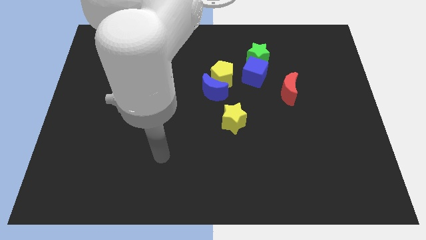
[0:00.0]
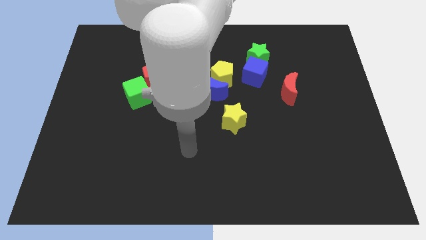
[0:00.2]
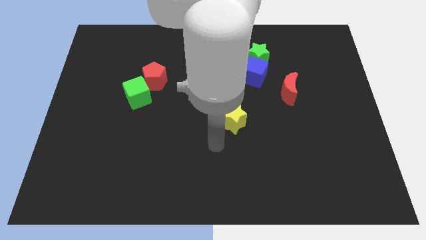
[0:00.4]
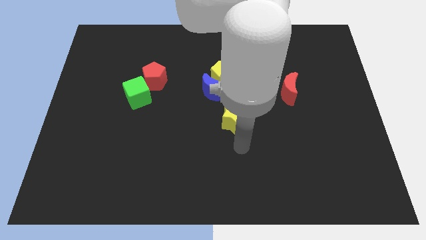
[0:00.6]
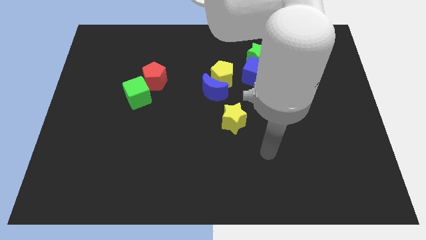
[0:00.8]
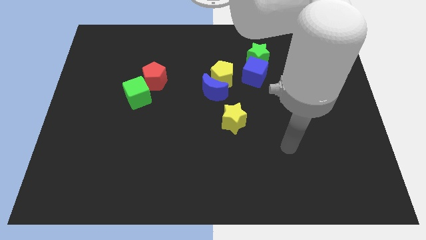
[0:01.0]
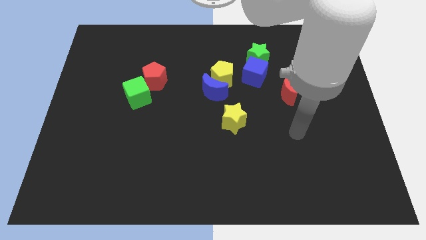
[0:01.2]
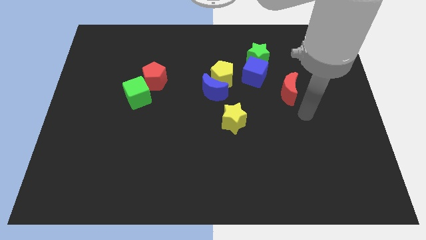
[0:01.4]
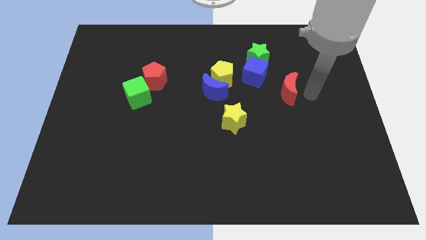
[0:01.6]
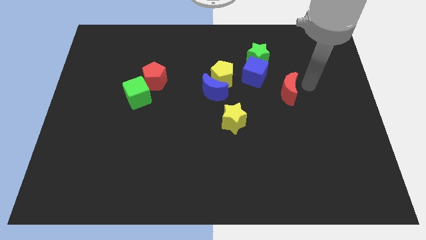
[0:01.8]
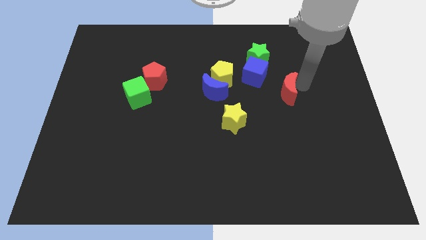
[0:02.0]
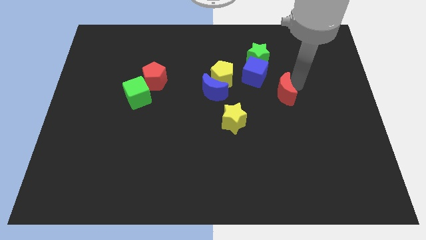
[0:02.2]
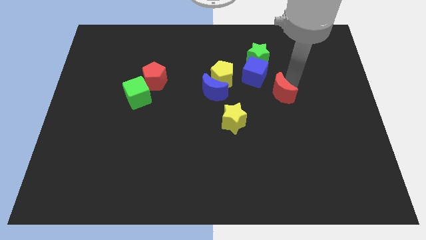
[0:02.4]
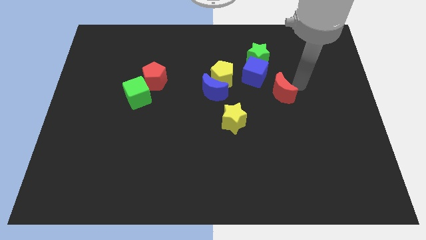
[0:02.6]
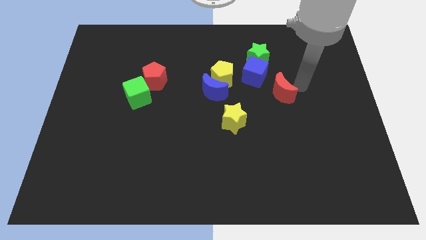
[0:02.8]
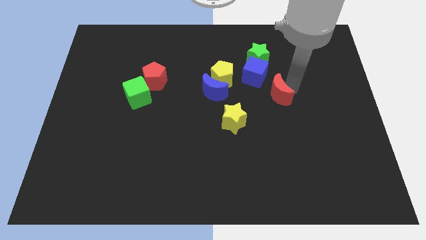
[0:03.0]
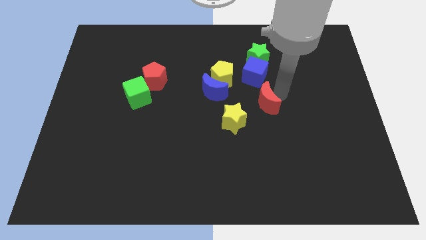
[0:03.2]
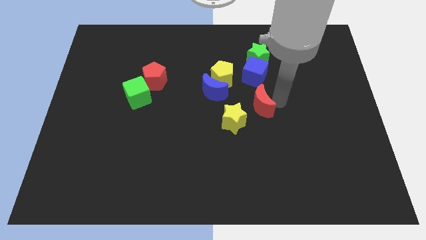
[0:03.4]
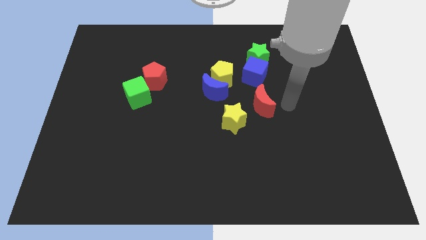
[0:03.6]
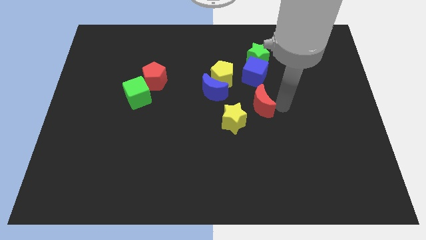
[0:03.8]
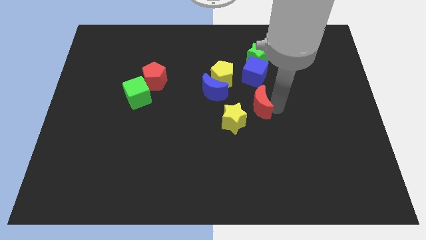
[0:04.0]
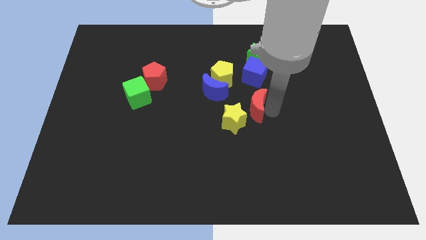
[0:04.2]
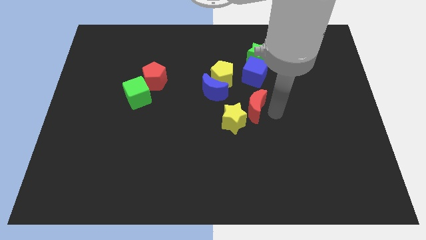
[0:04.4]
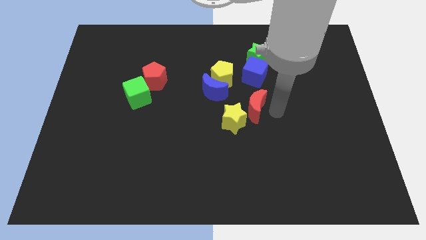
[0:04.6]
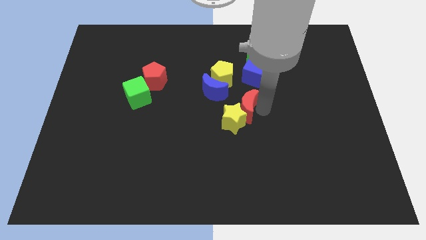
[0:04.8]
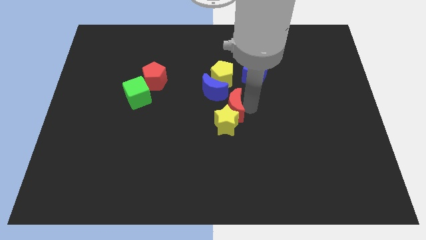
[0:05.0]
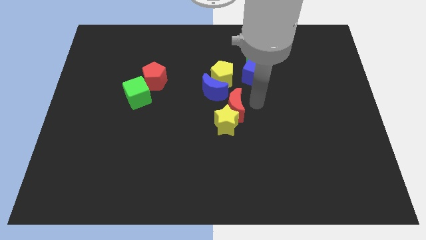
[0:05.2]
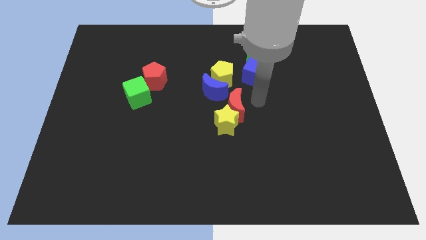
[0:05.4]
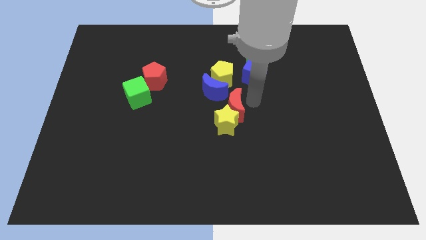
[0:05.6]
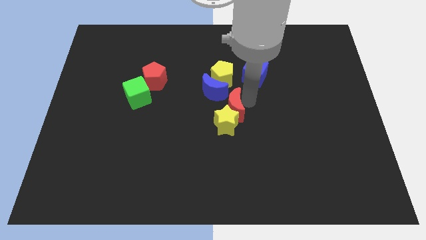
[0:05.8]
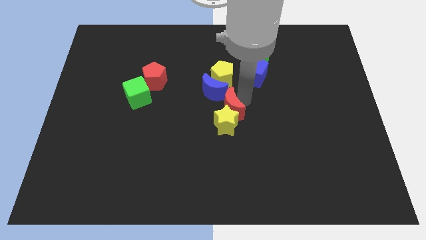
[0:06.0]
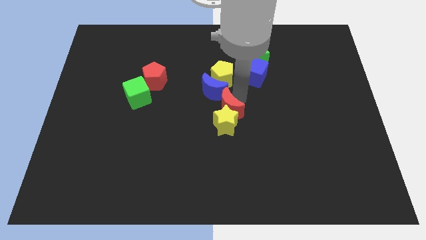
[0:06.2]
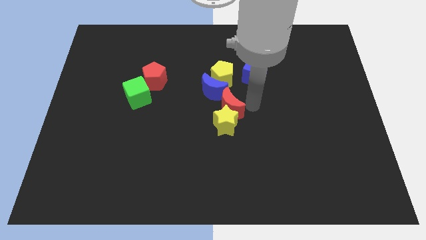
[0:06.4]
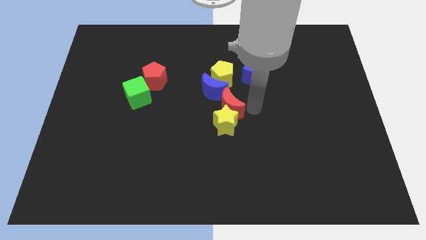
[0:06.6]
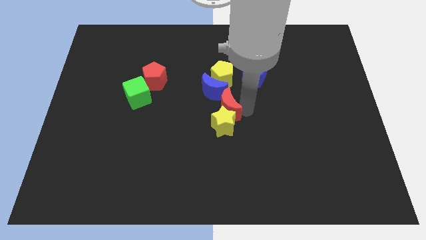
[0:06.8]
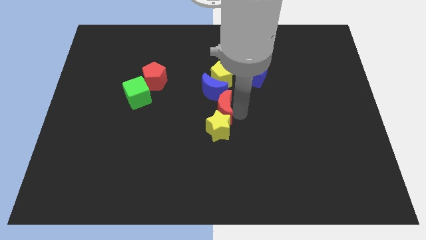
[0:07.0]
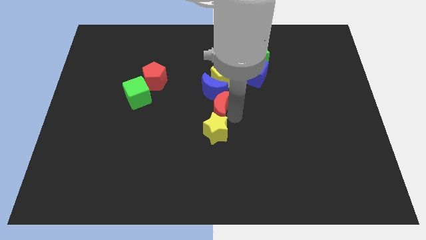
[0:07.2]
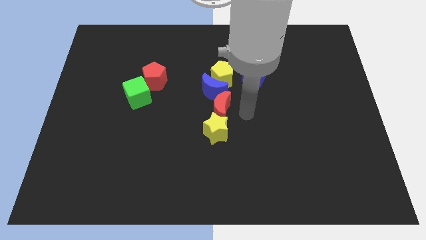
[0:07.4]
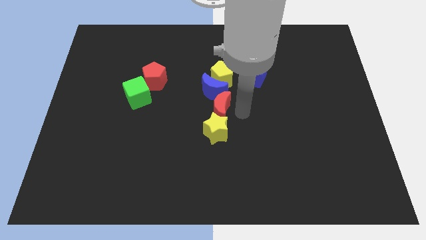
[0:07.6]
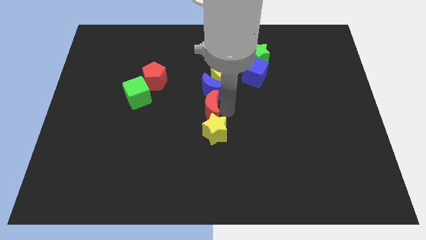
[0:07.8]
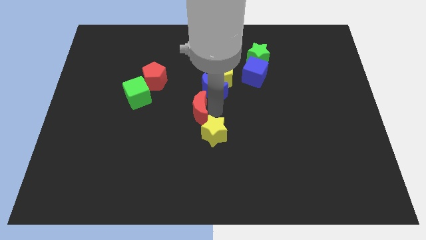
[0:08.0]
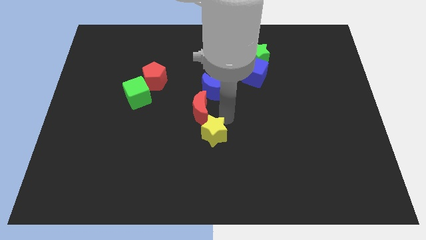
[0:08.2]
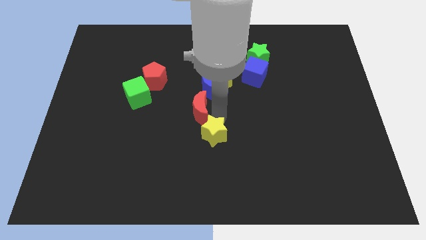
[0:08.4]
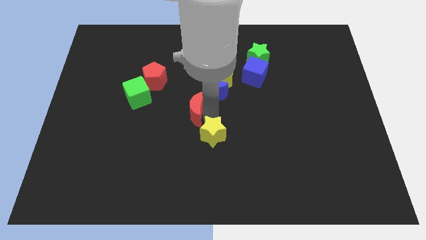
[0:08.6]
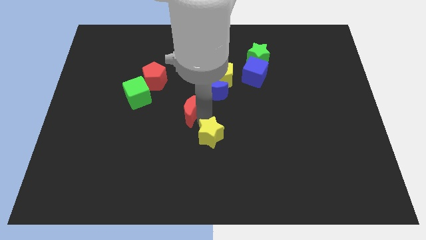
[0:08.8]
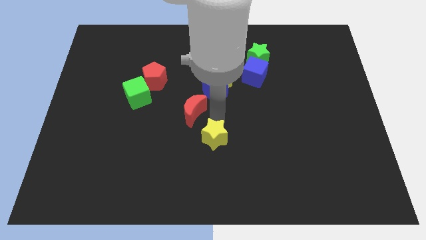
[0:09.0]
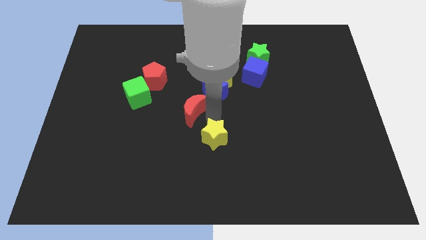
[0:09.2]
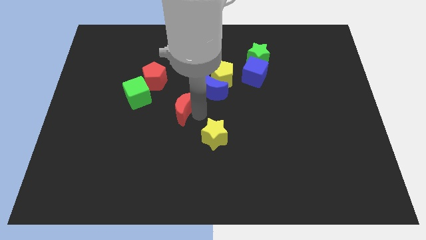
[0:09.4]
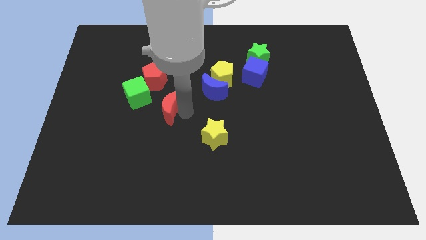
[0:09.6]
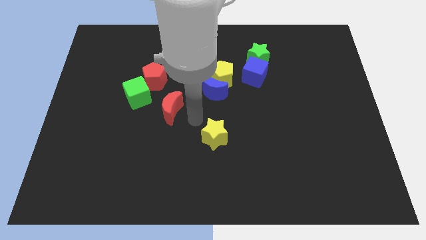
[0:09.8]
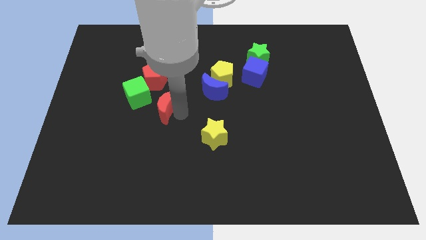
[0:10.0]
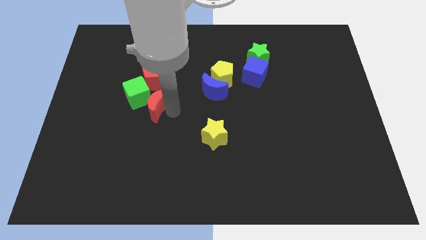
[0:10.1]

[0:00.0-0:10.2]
push the red moon to the green cube

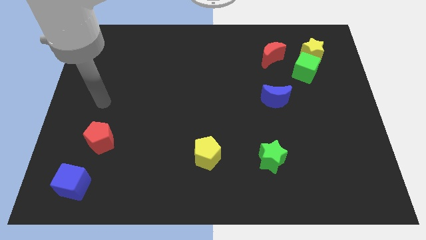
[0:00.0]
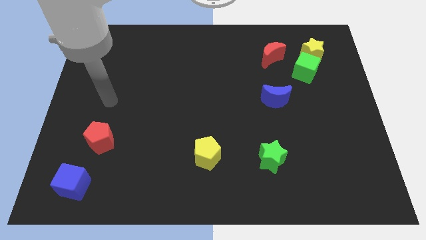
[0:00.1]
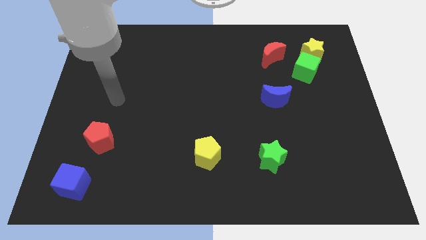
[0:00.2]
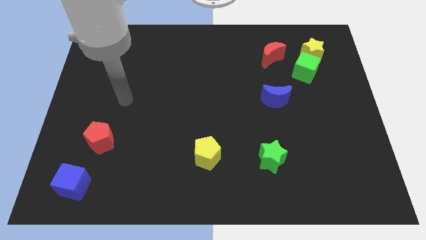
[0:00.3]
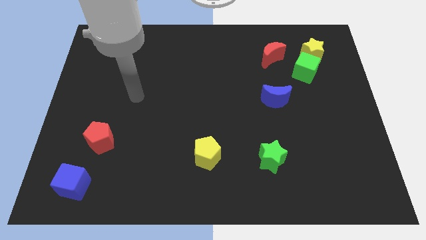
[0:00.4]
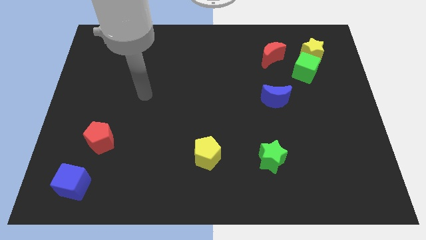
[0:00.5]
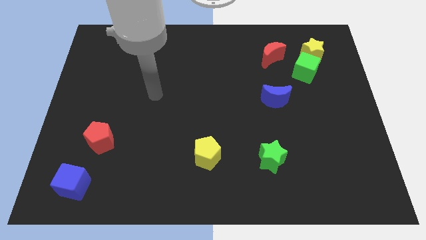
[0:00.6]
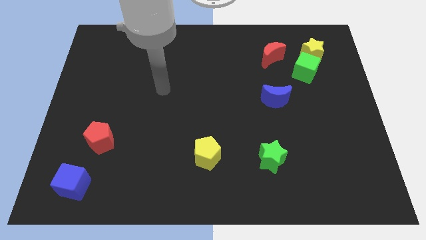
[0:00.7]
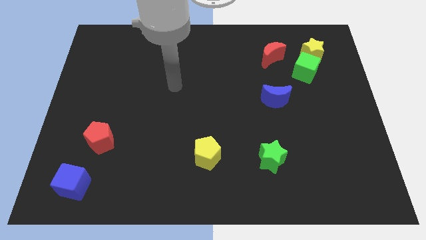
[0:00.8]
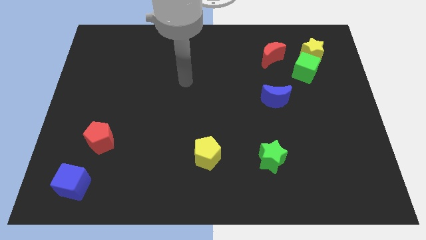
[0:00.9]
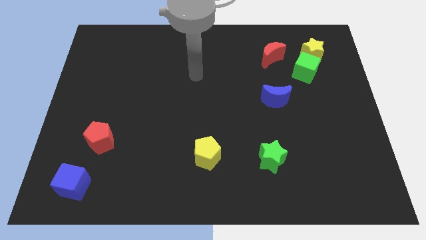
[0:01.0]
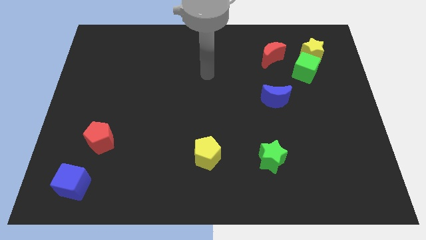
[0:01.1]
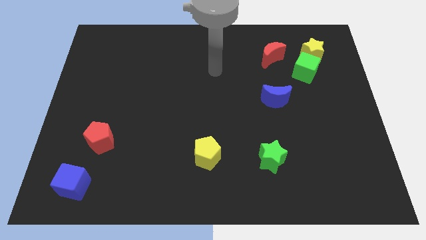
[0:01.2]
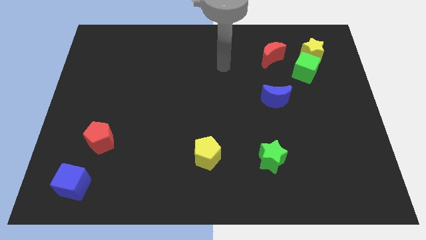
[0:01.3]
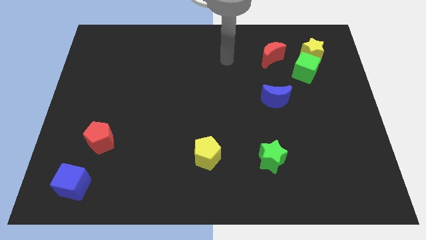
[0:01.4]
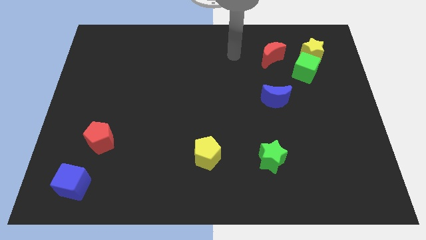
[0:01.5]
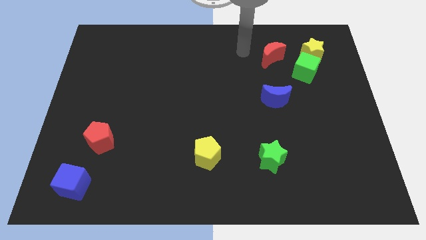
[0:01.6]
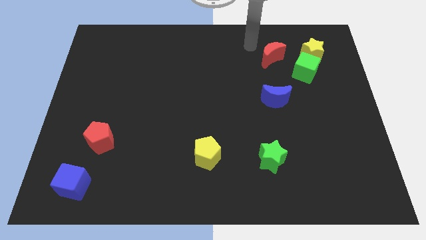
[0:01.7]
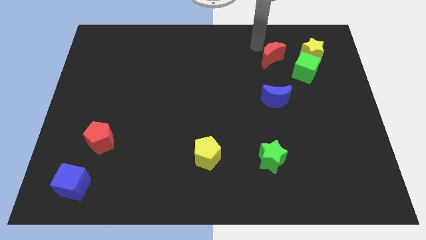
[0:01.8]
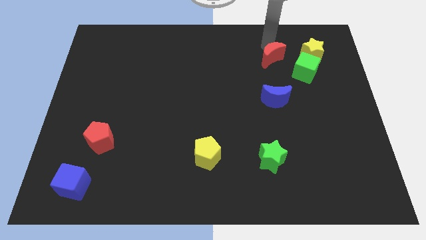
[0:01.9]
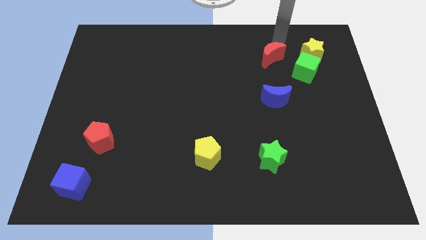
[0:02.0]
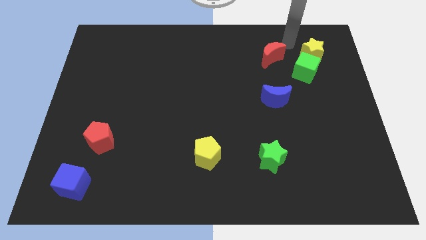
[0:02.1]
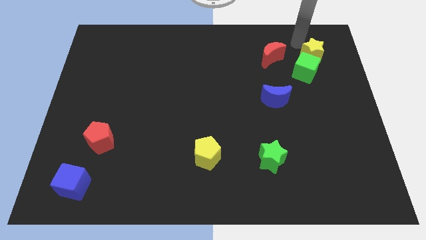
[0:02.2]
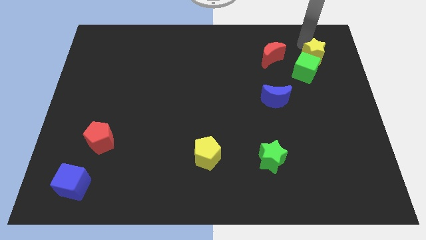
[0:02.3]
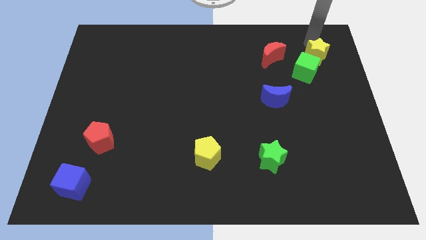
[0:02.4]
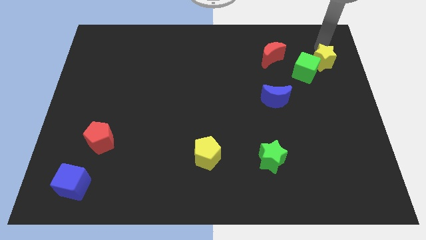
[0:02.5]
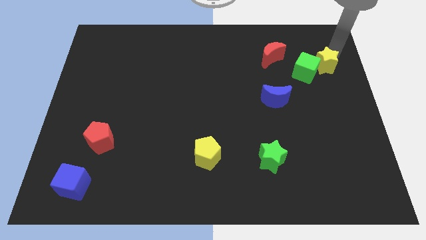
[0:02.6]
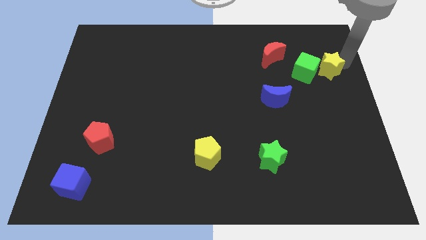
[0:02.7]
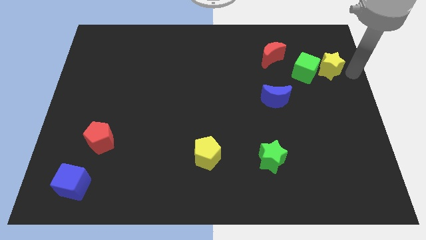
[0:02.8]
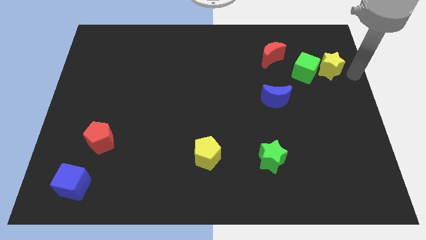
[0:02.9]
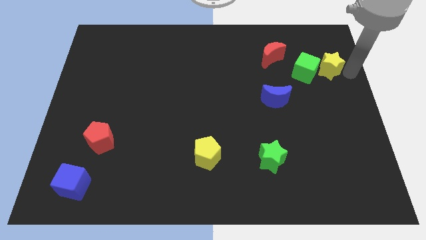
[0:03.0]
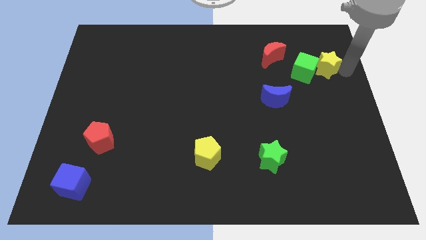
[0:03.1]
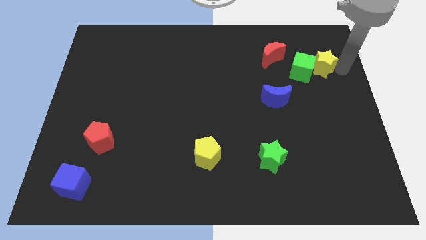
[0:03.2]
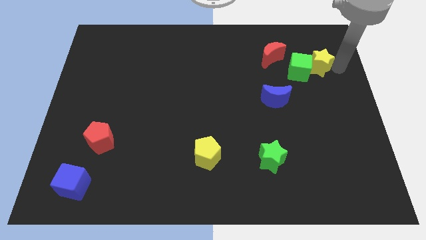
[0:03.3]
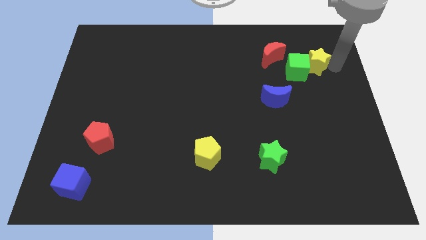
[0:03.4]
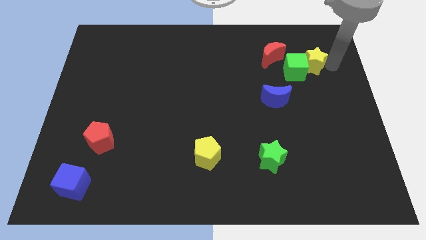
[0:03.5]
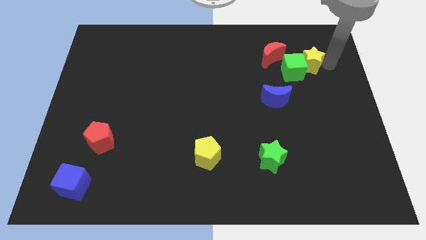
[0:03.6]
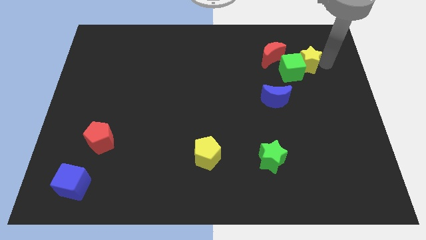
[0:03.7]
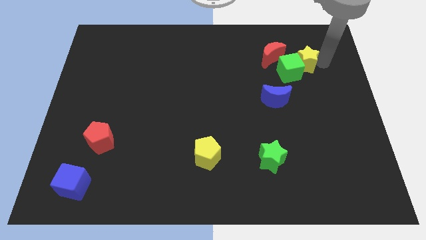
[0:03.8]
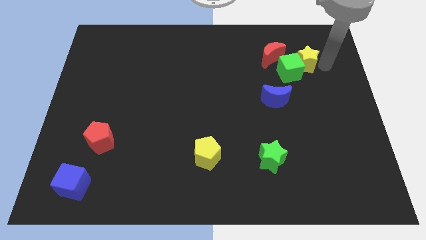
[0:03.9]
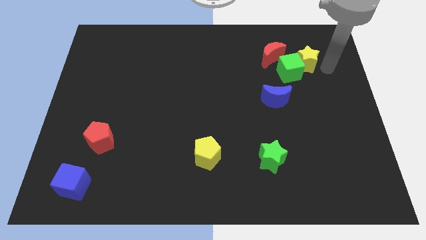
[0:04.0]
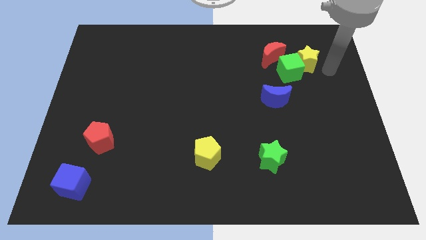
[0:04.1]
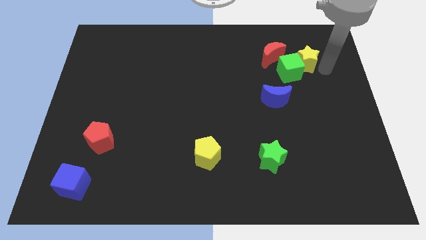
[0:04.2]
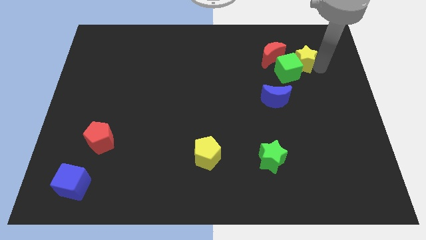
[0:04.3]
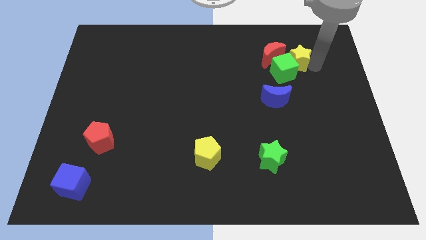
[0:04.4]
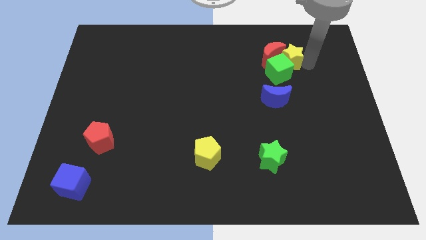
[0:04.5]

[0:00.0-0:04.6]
put the yellow star next to the red moon
